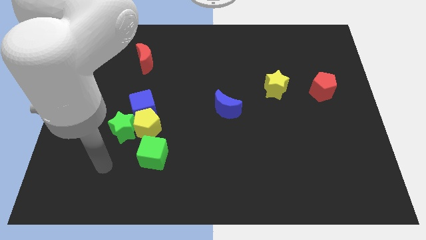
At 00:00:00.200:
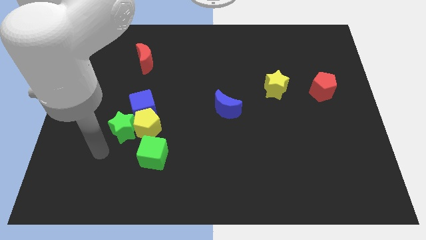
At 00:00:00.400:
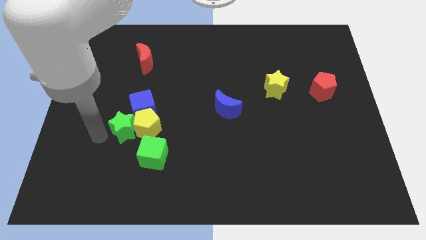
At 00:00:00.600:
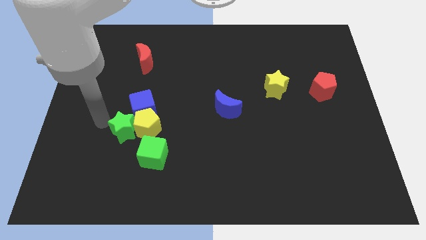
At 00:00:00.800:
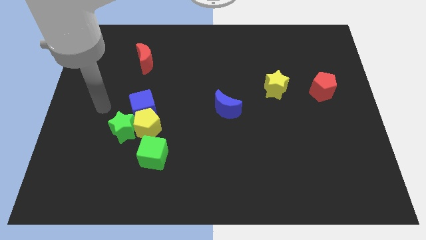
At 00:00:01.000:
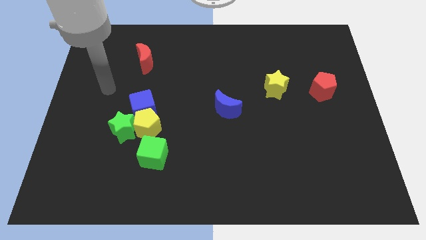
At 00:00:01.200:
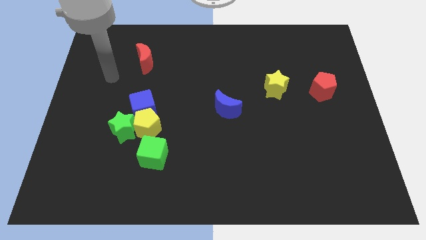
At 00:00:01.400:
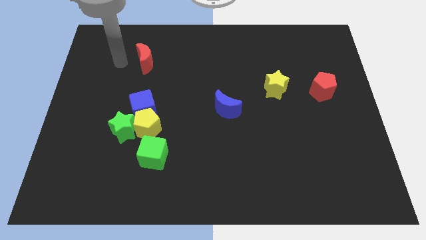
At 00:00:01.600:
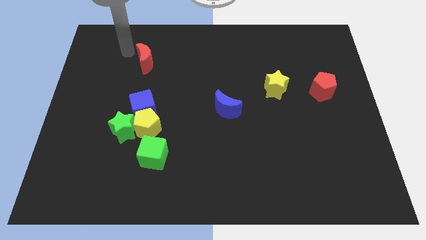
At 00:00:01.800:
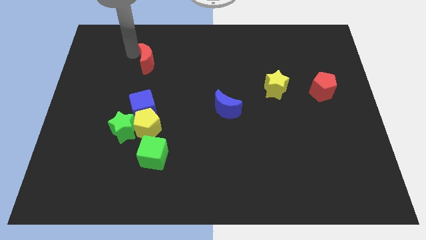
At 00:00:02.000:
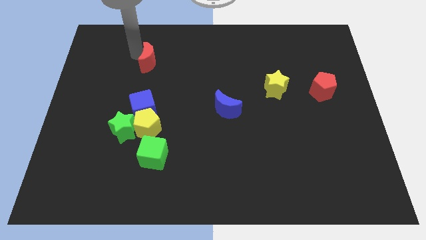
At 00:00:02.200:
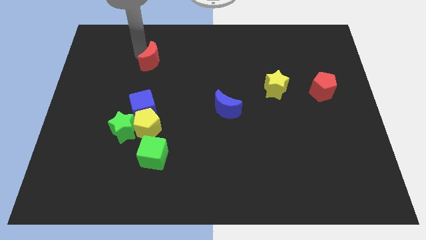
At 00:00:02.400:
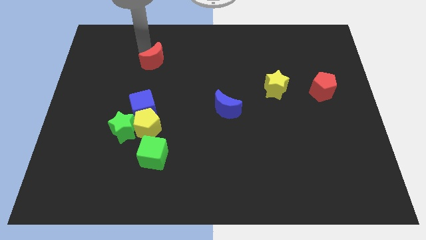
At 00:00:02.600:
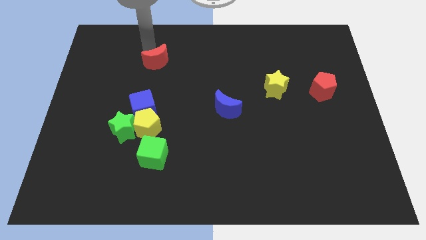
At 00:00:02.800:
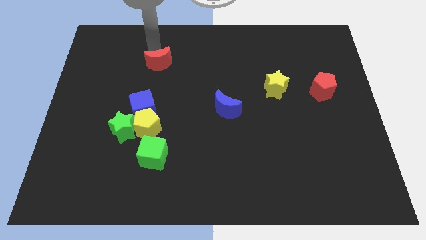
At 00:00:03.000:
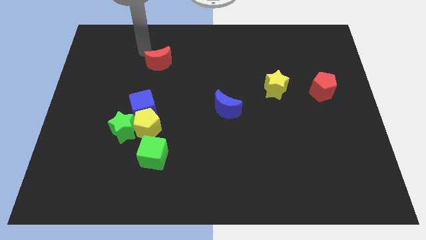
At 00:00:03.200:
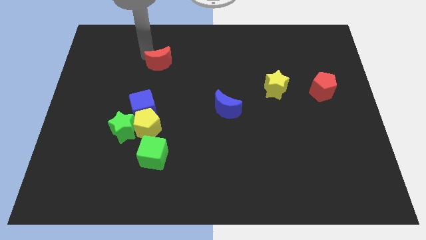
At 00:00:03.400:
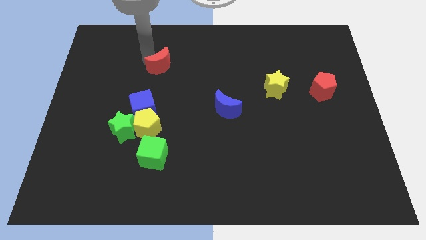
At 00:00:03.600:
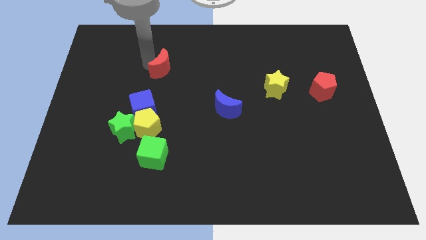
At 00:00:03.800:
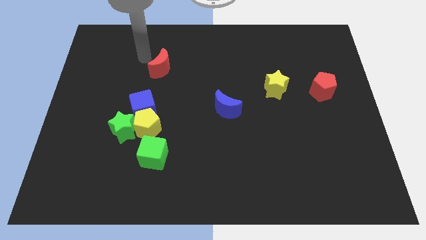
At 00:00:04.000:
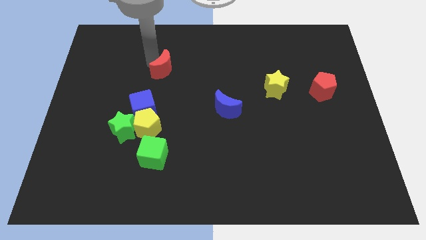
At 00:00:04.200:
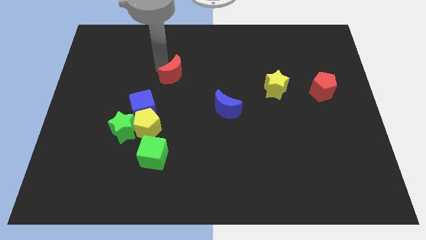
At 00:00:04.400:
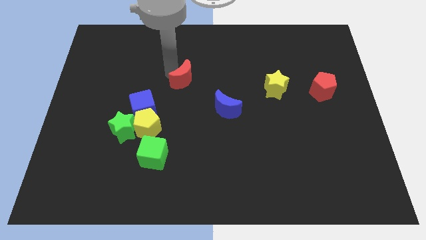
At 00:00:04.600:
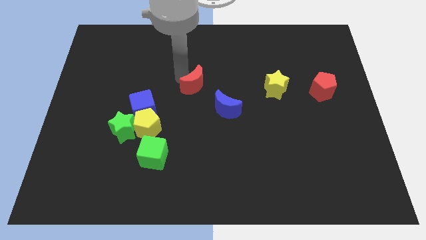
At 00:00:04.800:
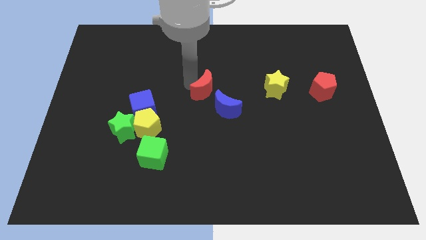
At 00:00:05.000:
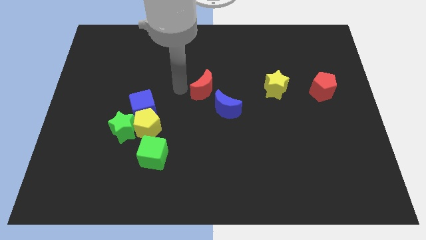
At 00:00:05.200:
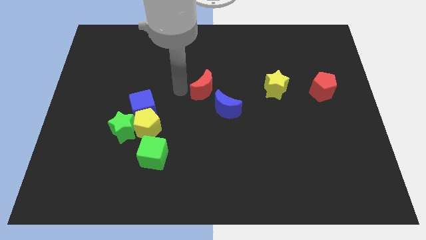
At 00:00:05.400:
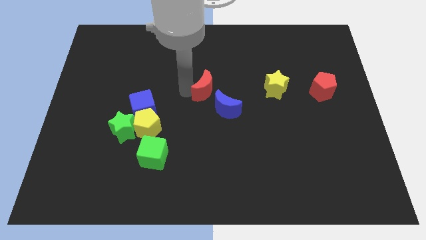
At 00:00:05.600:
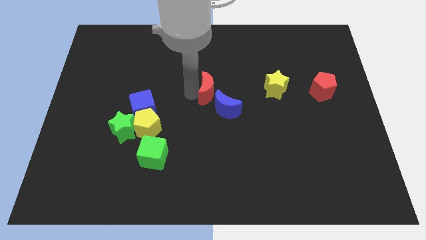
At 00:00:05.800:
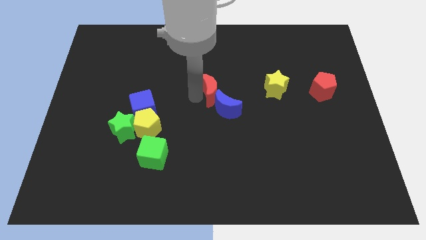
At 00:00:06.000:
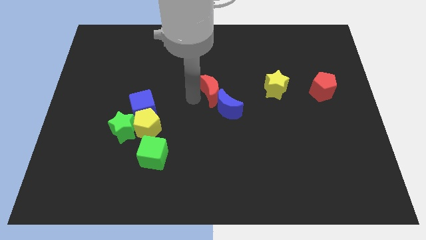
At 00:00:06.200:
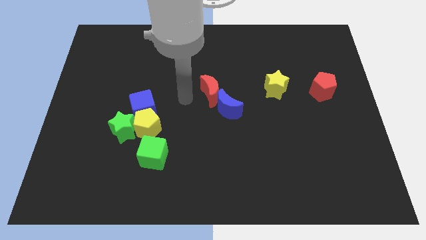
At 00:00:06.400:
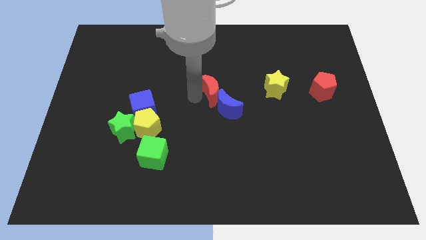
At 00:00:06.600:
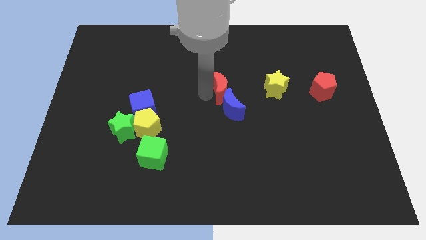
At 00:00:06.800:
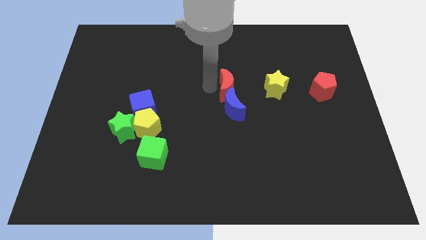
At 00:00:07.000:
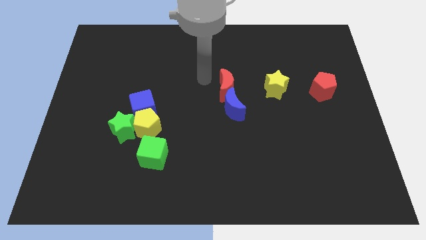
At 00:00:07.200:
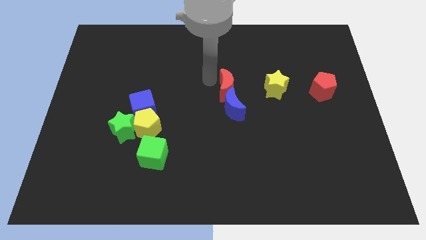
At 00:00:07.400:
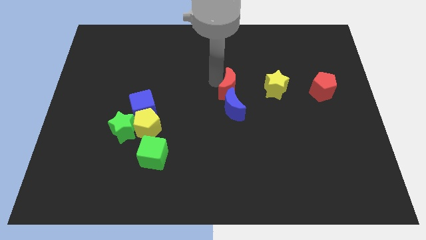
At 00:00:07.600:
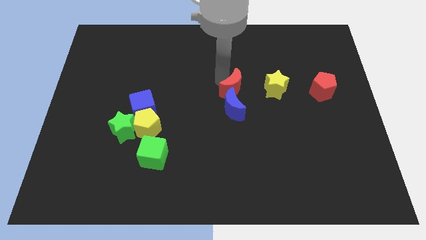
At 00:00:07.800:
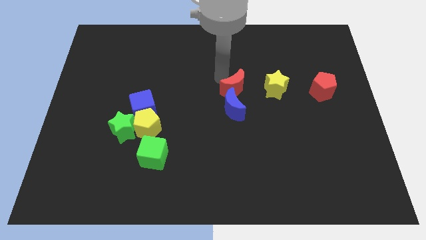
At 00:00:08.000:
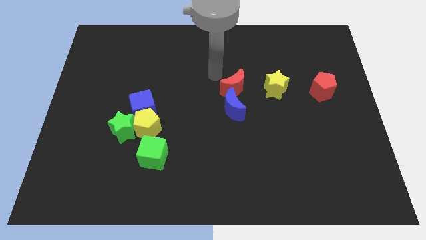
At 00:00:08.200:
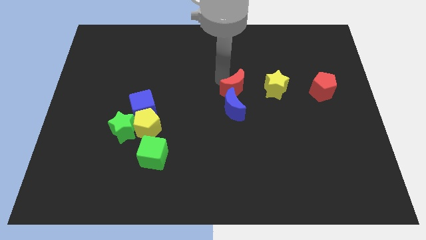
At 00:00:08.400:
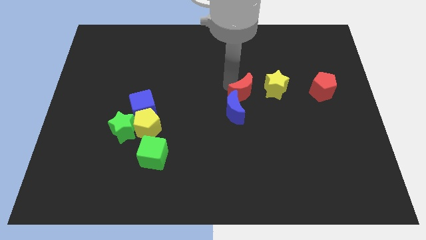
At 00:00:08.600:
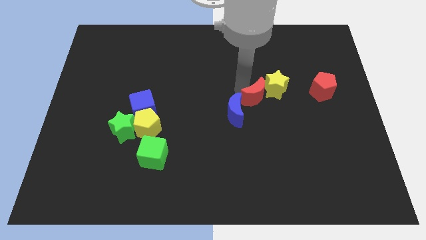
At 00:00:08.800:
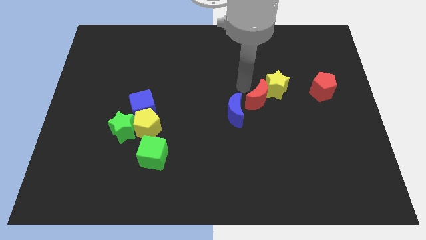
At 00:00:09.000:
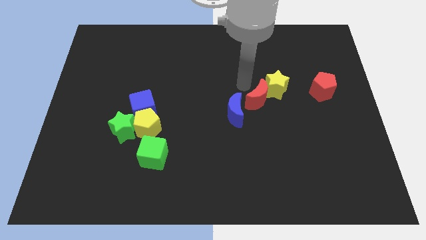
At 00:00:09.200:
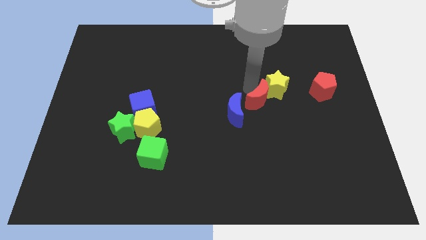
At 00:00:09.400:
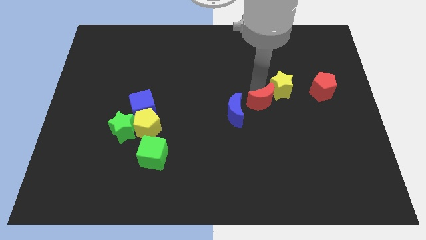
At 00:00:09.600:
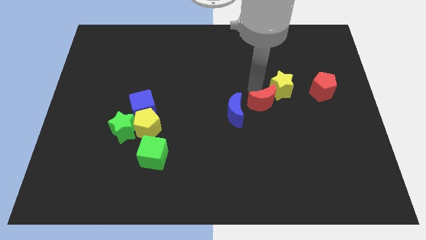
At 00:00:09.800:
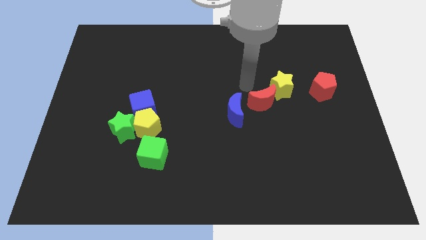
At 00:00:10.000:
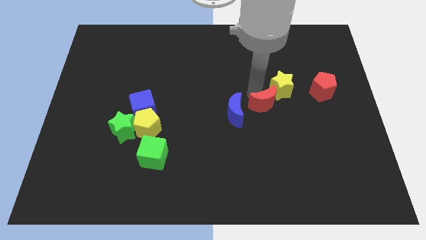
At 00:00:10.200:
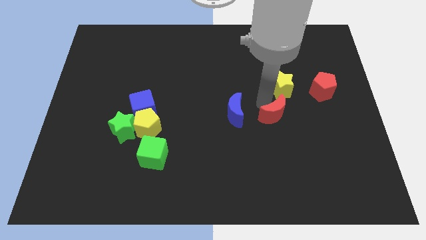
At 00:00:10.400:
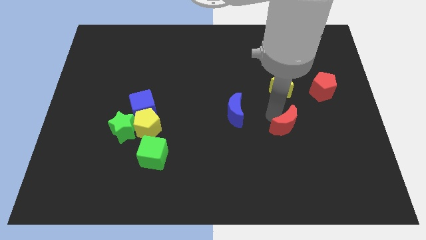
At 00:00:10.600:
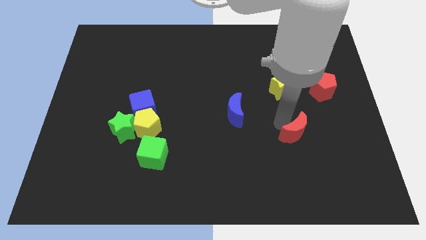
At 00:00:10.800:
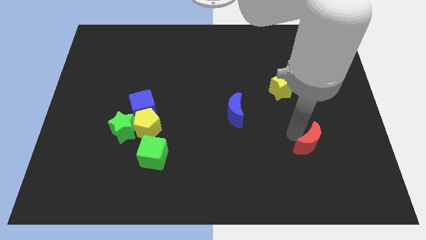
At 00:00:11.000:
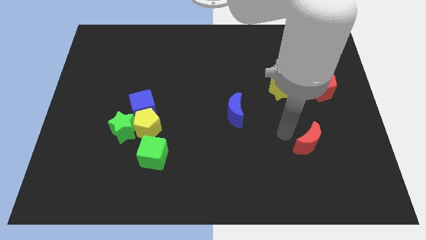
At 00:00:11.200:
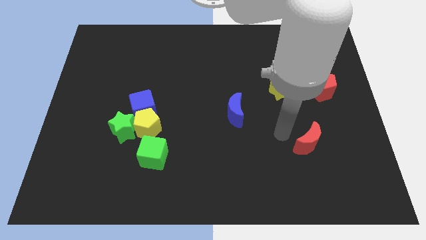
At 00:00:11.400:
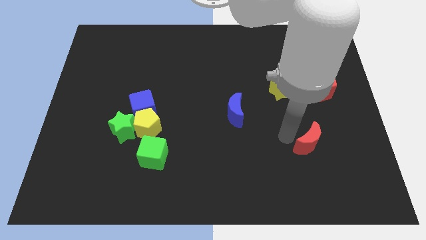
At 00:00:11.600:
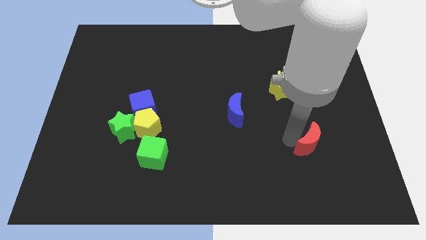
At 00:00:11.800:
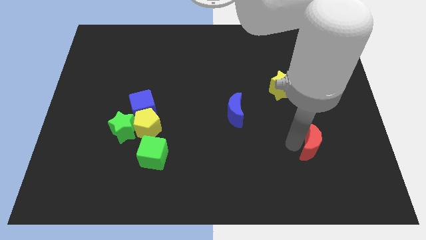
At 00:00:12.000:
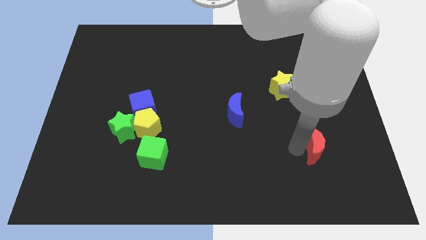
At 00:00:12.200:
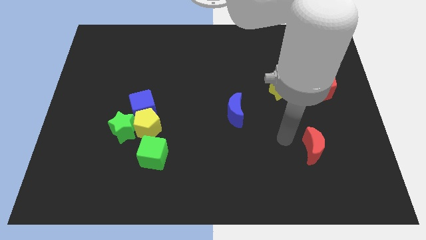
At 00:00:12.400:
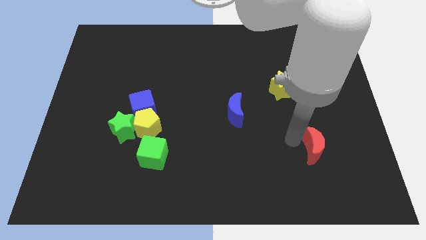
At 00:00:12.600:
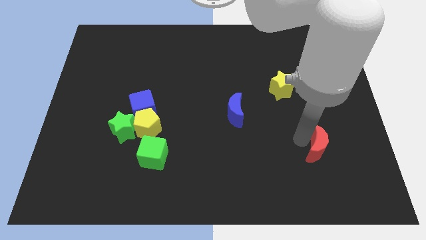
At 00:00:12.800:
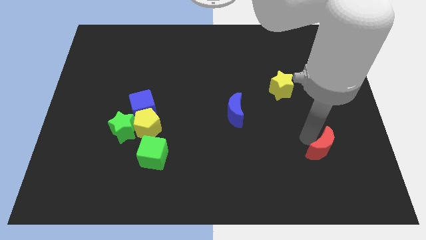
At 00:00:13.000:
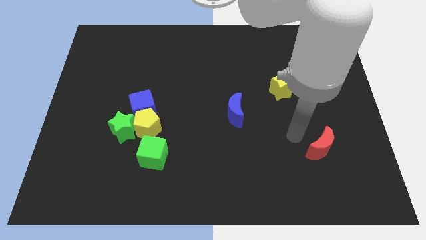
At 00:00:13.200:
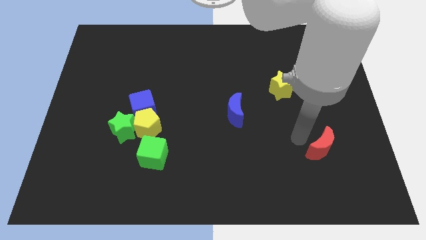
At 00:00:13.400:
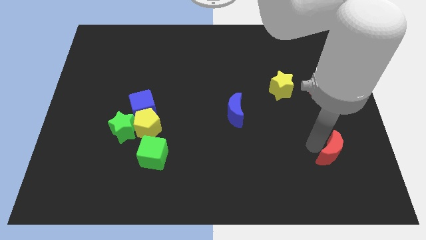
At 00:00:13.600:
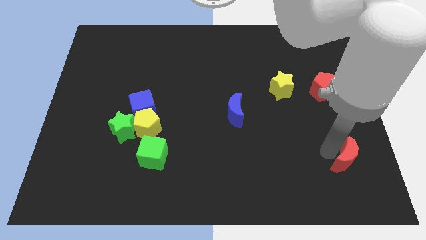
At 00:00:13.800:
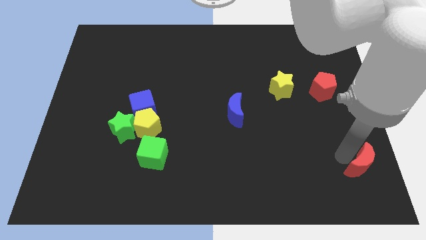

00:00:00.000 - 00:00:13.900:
move the red moon to the lower right corner

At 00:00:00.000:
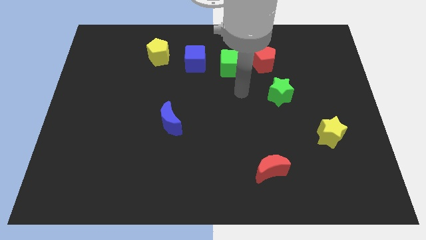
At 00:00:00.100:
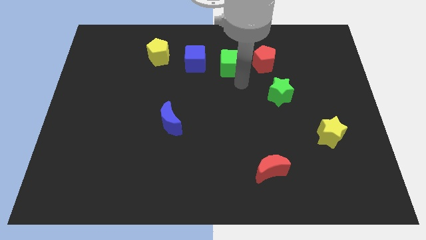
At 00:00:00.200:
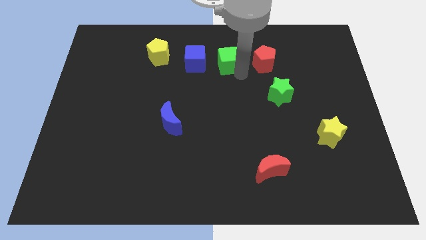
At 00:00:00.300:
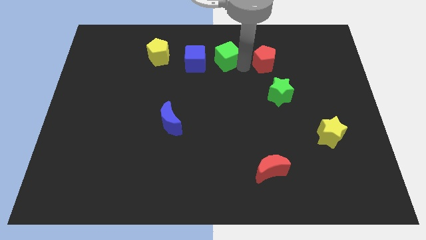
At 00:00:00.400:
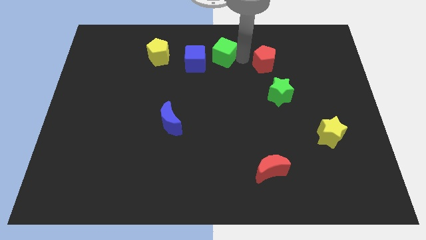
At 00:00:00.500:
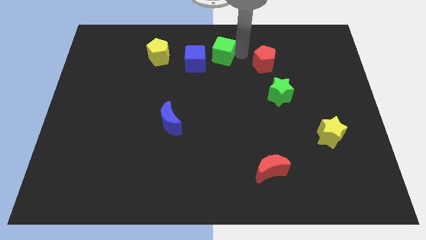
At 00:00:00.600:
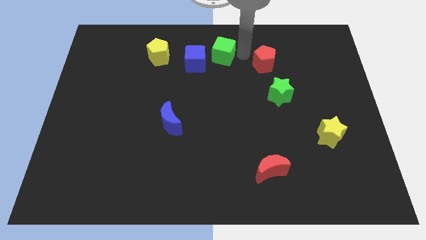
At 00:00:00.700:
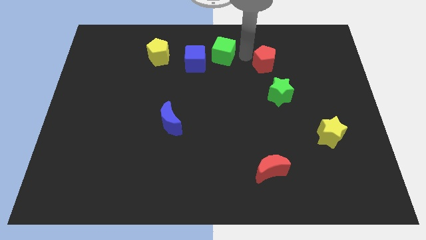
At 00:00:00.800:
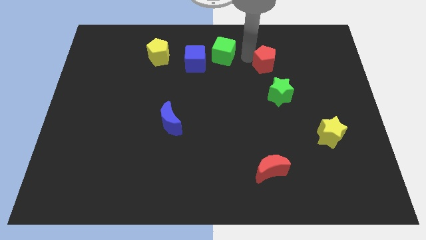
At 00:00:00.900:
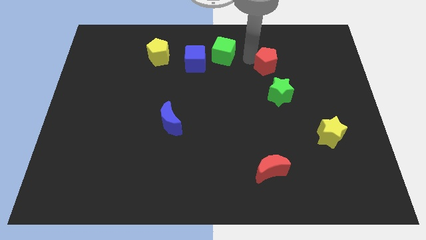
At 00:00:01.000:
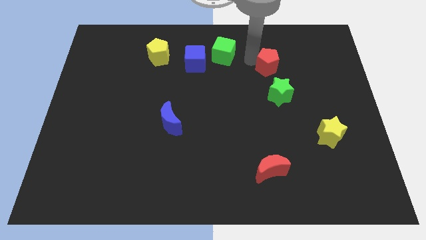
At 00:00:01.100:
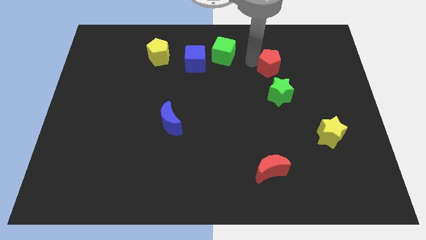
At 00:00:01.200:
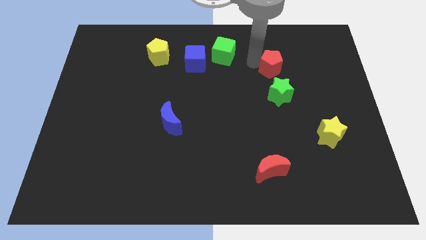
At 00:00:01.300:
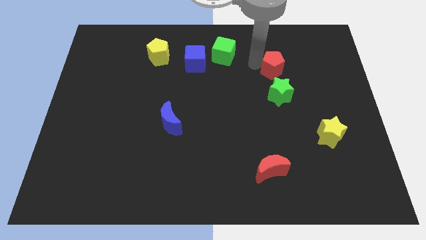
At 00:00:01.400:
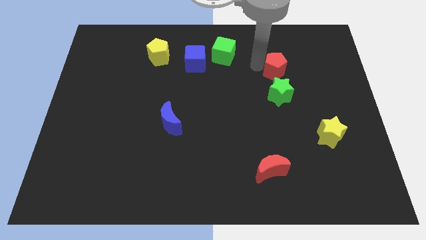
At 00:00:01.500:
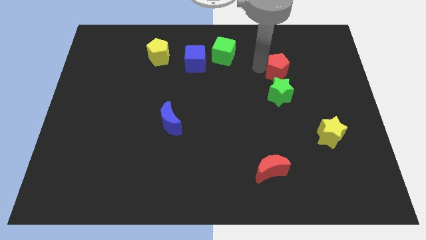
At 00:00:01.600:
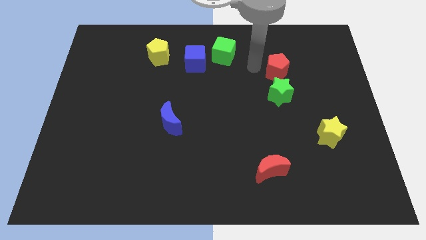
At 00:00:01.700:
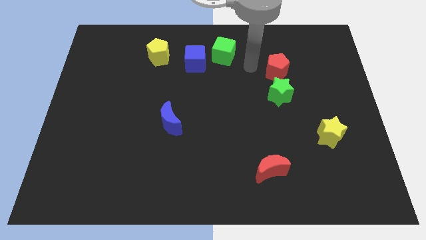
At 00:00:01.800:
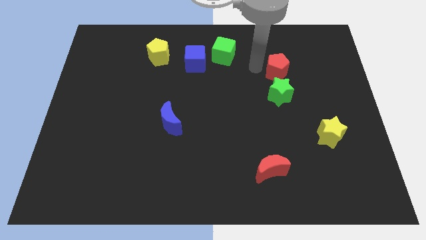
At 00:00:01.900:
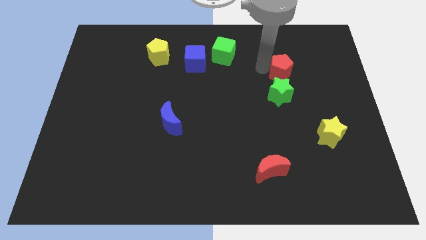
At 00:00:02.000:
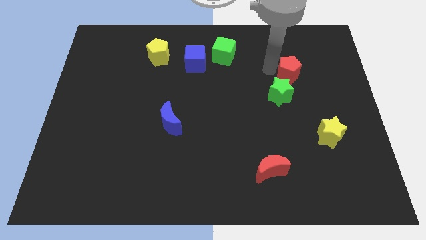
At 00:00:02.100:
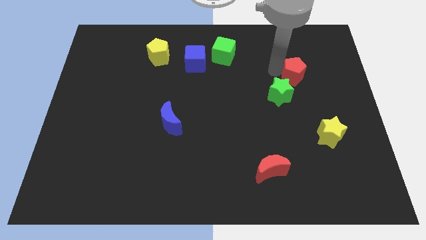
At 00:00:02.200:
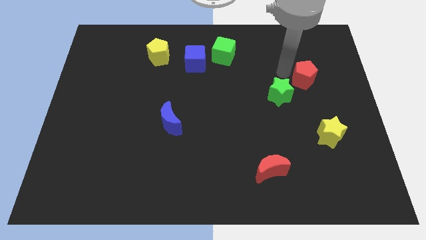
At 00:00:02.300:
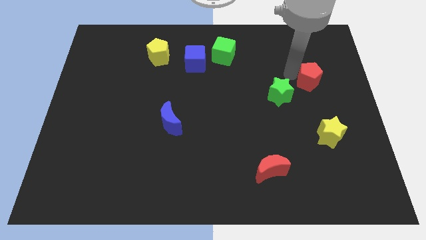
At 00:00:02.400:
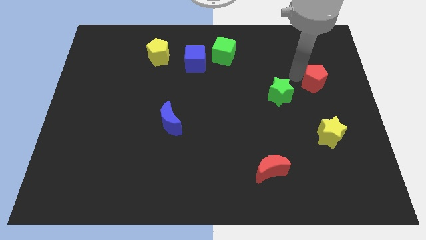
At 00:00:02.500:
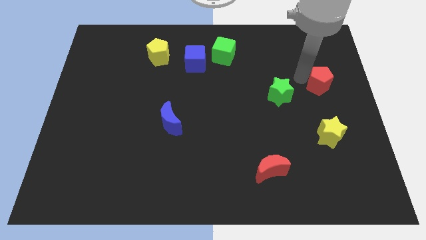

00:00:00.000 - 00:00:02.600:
slide the red pentagon to the right side of the board
